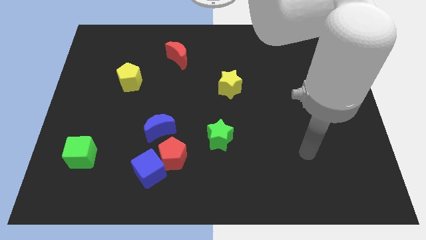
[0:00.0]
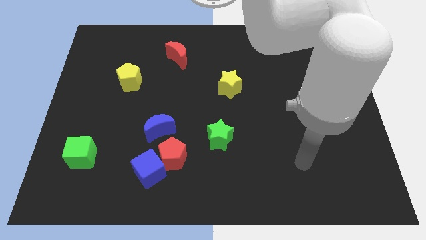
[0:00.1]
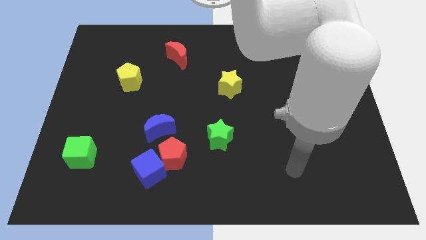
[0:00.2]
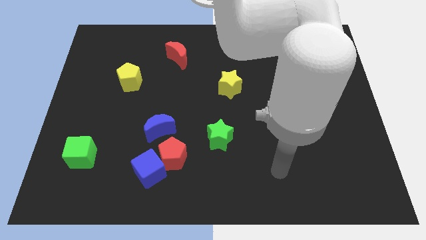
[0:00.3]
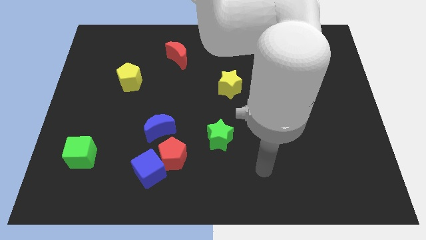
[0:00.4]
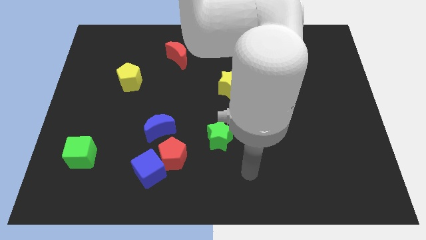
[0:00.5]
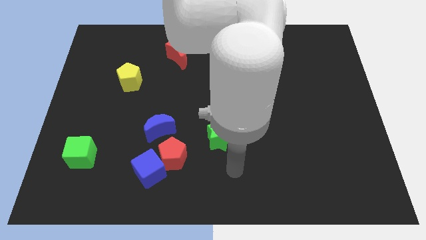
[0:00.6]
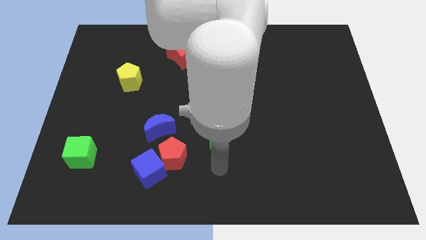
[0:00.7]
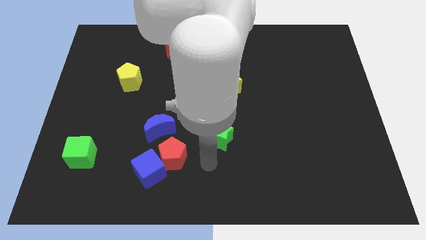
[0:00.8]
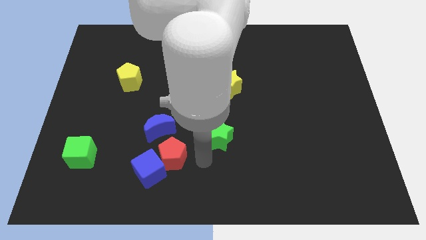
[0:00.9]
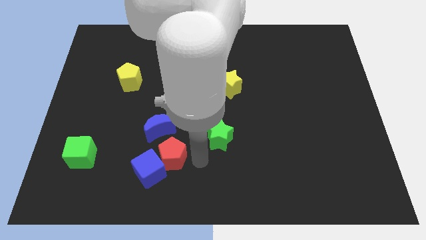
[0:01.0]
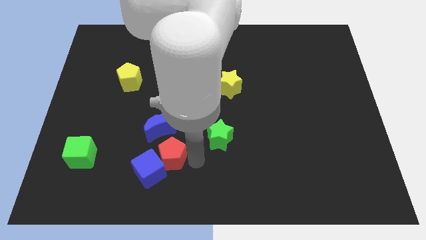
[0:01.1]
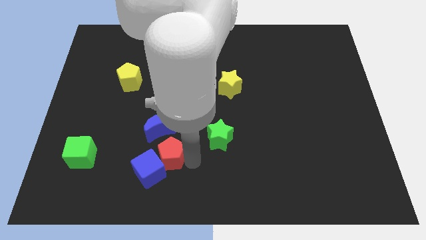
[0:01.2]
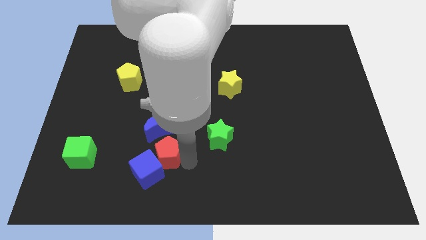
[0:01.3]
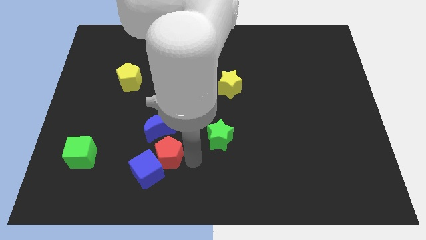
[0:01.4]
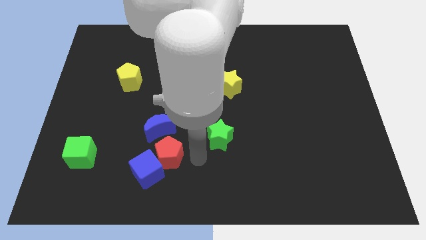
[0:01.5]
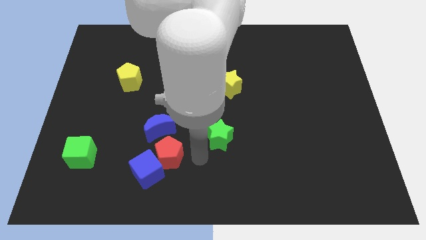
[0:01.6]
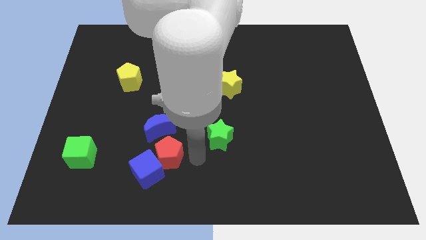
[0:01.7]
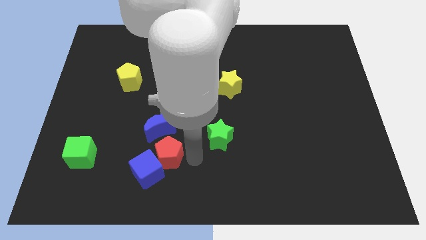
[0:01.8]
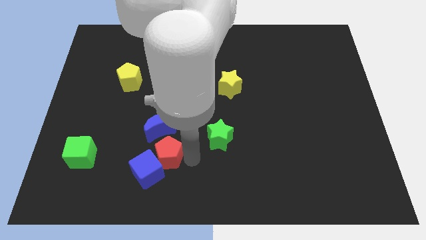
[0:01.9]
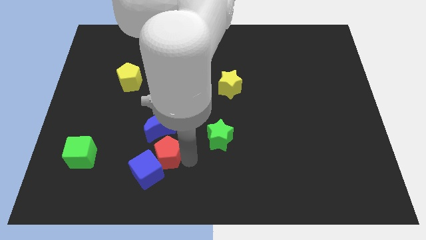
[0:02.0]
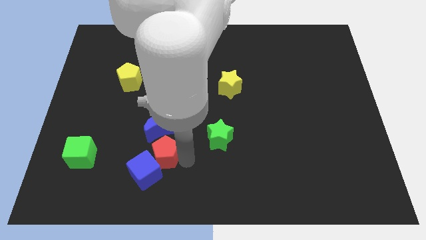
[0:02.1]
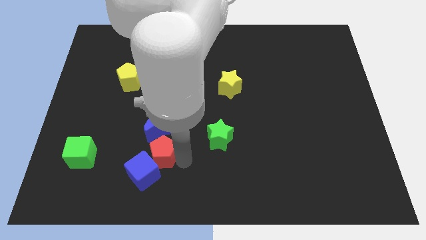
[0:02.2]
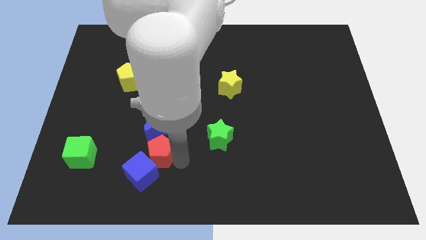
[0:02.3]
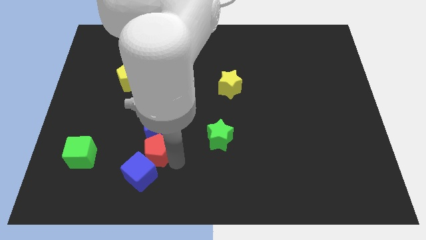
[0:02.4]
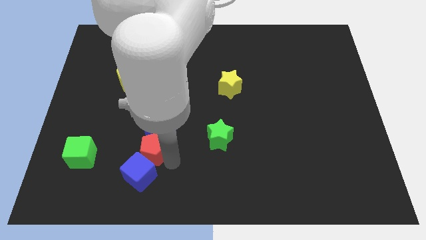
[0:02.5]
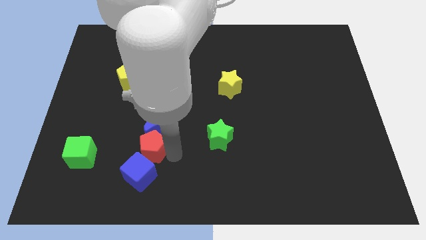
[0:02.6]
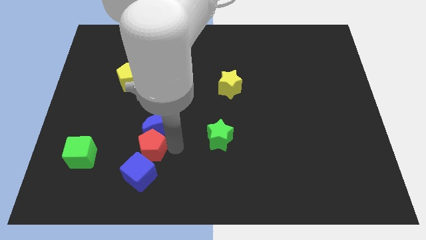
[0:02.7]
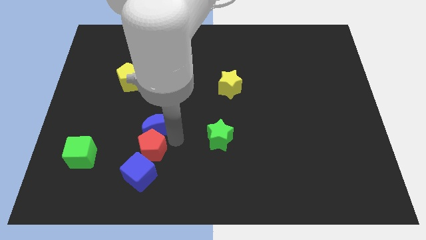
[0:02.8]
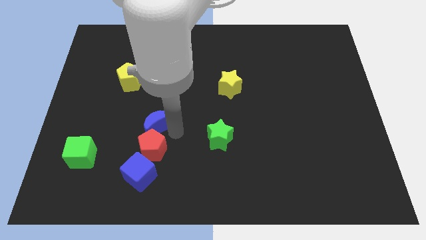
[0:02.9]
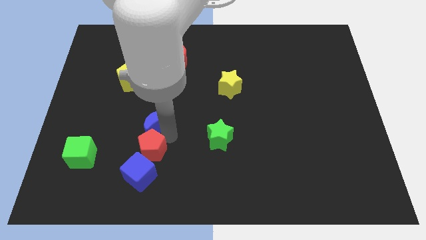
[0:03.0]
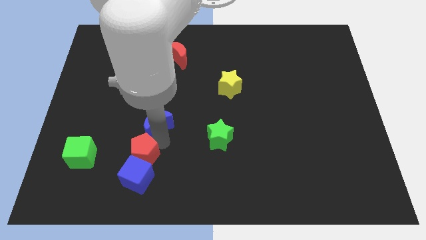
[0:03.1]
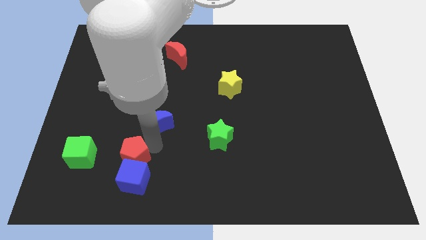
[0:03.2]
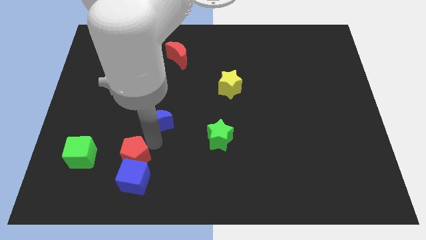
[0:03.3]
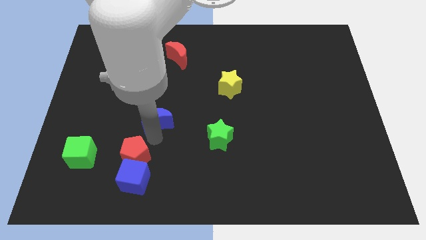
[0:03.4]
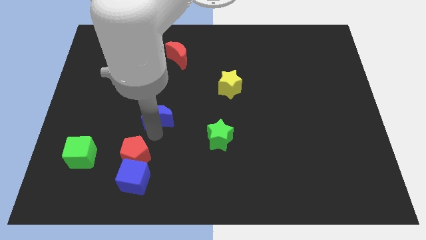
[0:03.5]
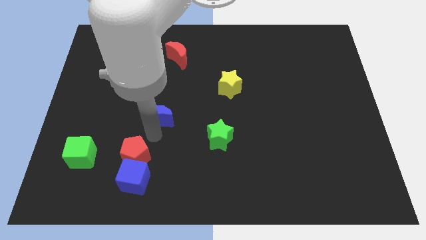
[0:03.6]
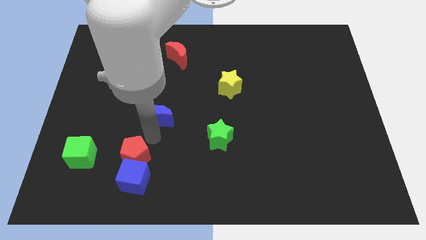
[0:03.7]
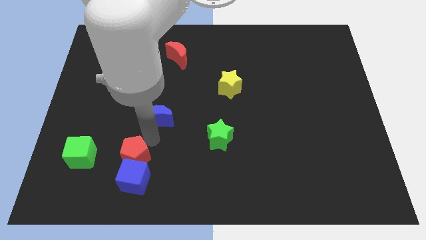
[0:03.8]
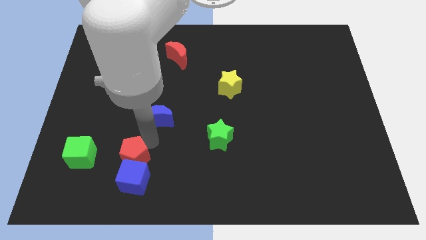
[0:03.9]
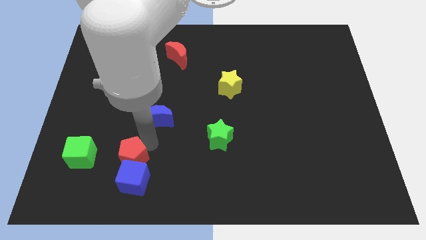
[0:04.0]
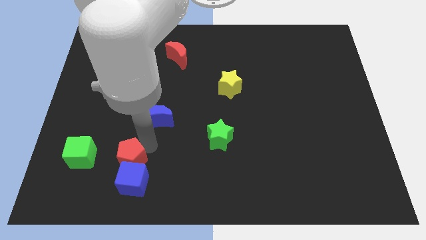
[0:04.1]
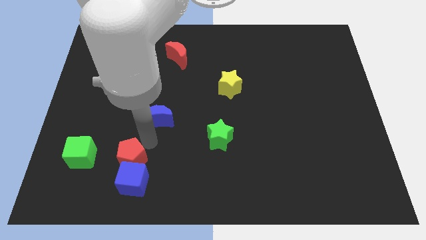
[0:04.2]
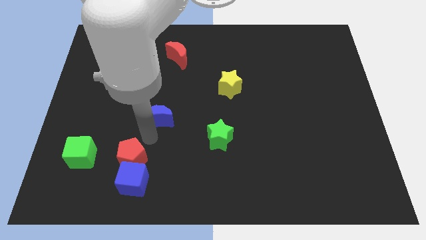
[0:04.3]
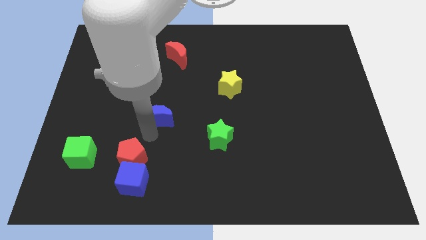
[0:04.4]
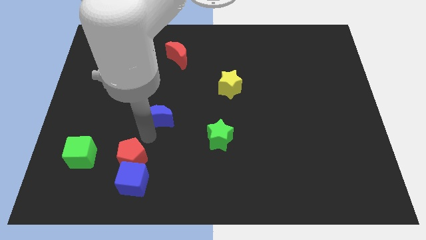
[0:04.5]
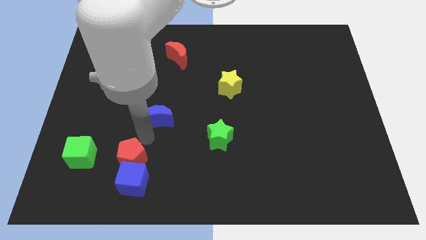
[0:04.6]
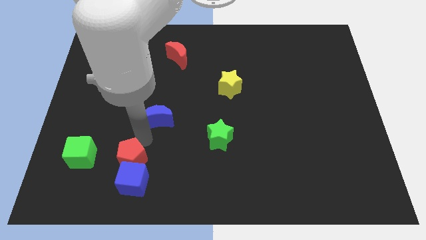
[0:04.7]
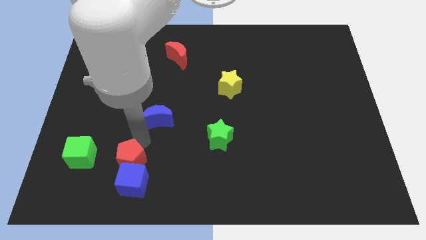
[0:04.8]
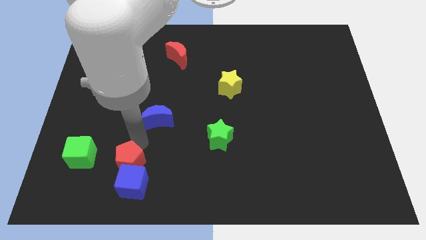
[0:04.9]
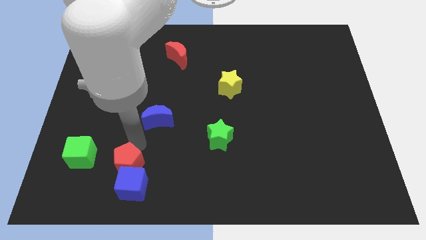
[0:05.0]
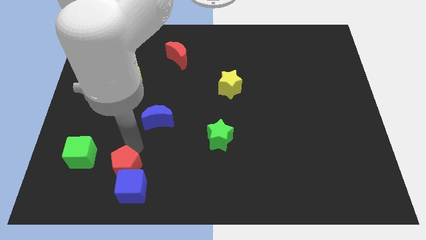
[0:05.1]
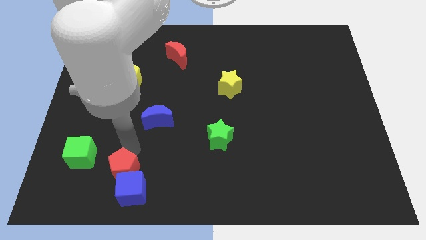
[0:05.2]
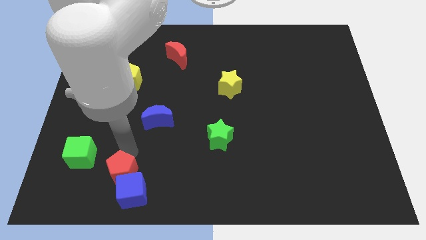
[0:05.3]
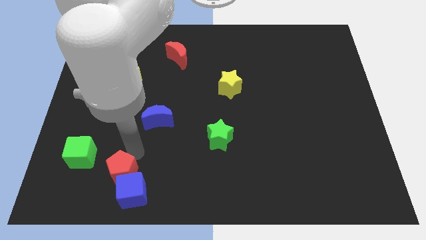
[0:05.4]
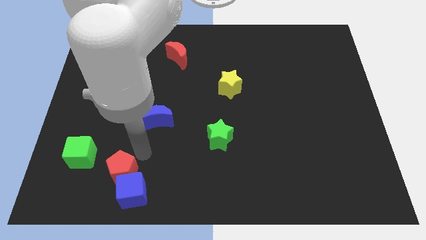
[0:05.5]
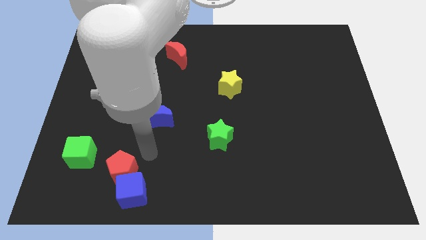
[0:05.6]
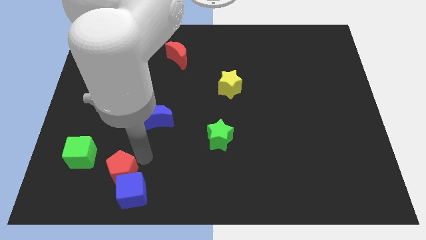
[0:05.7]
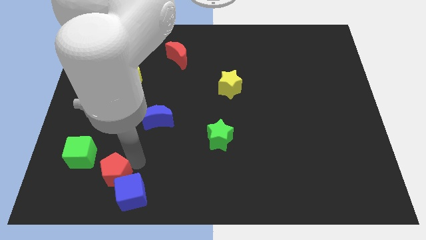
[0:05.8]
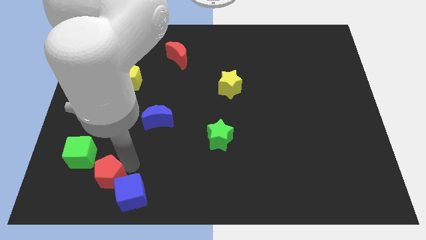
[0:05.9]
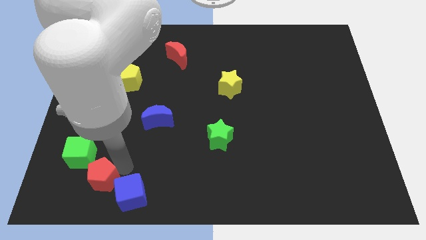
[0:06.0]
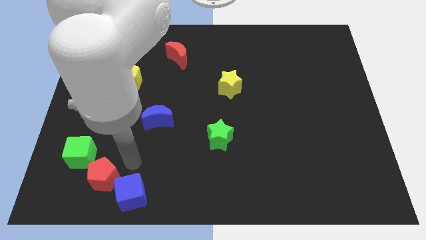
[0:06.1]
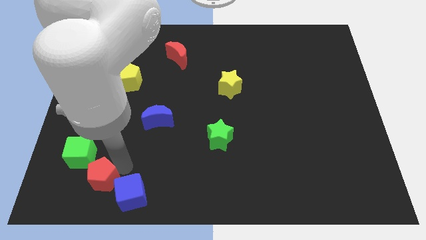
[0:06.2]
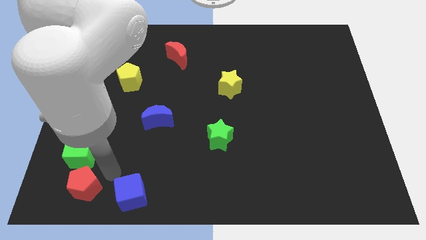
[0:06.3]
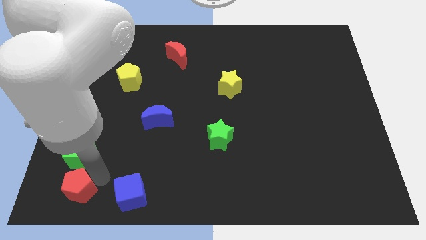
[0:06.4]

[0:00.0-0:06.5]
push the red pentagon to the lower left corner
